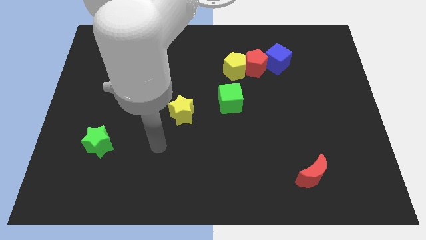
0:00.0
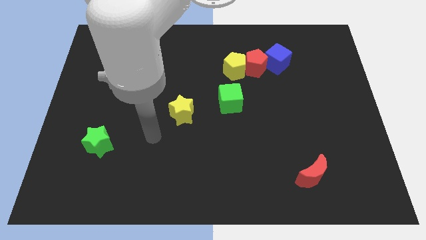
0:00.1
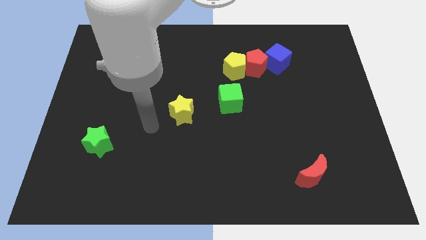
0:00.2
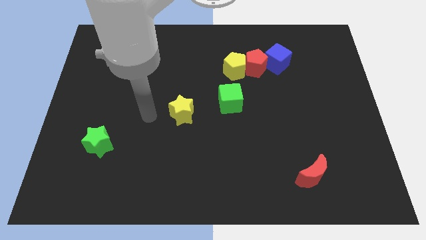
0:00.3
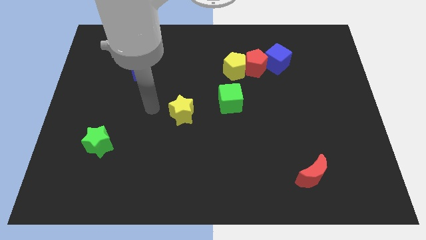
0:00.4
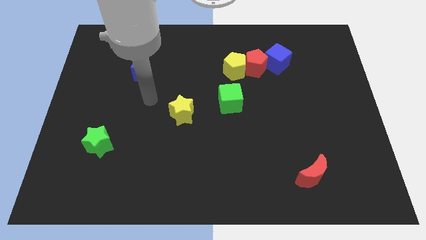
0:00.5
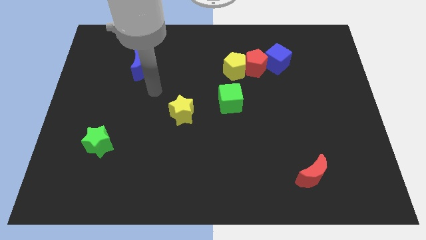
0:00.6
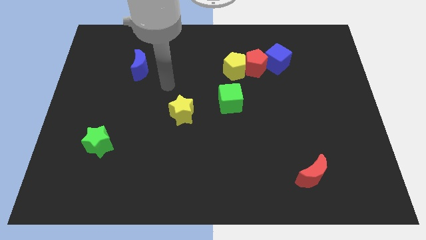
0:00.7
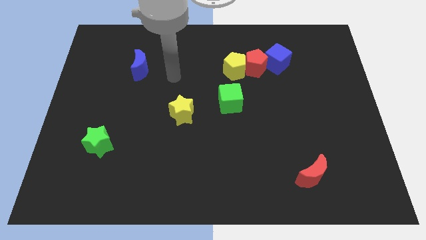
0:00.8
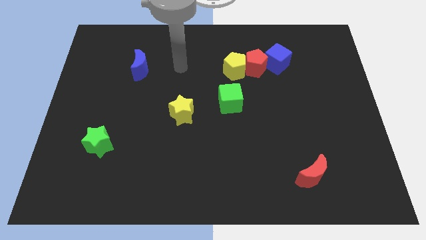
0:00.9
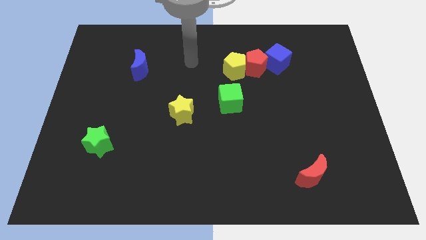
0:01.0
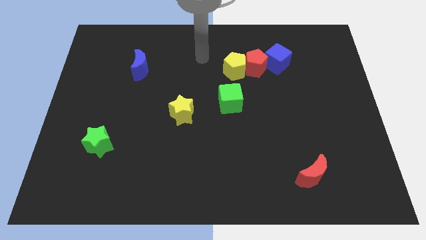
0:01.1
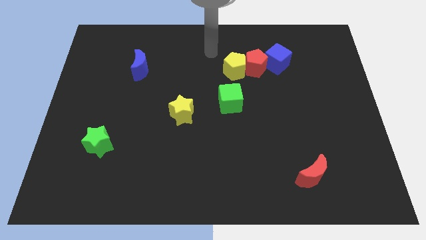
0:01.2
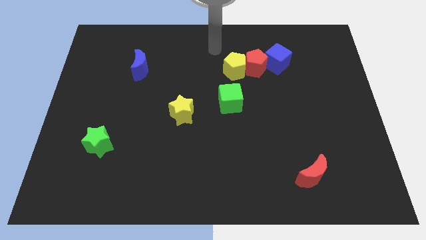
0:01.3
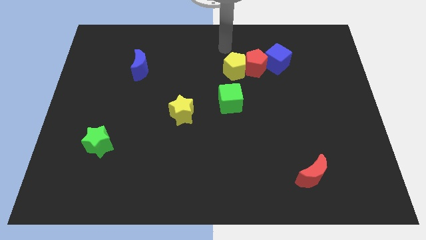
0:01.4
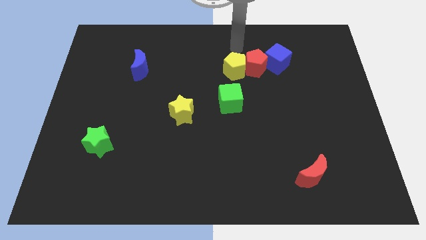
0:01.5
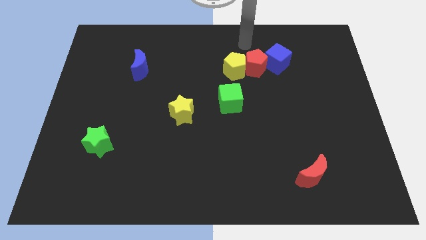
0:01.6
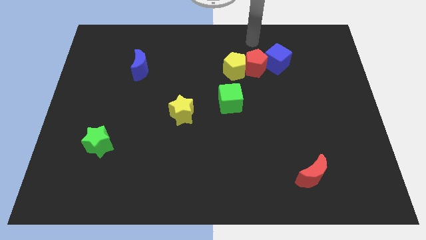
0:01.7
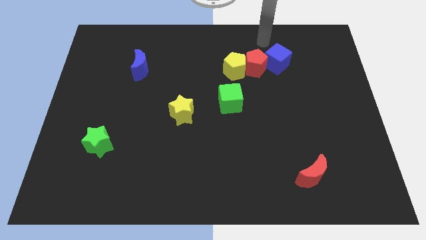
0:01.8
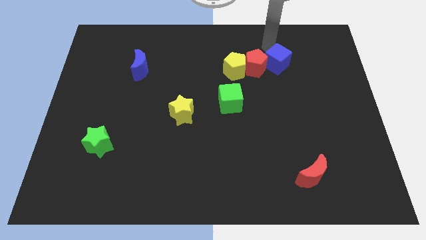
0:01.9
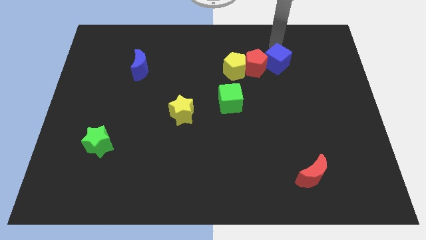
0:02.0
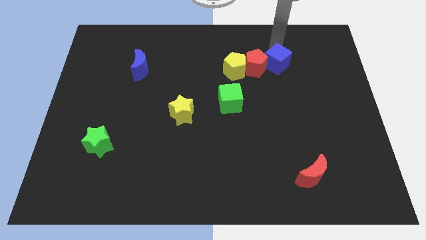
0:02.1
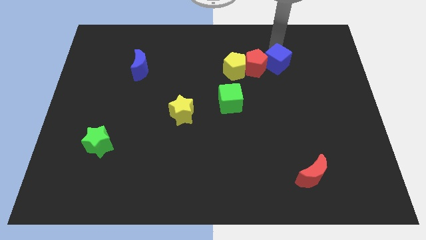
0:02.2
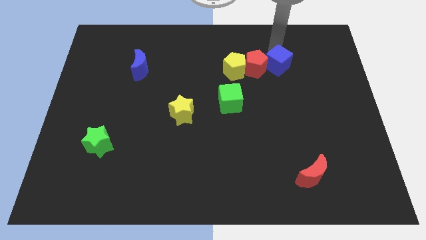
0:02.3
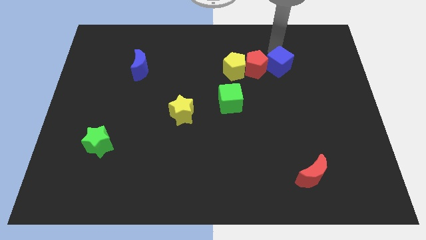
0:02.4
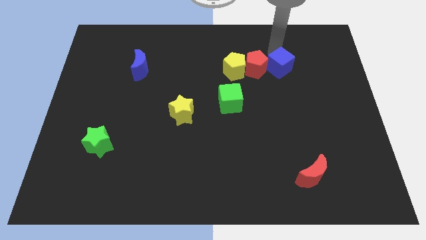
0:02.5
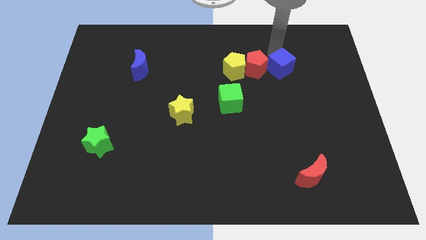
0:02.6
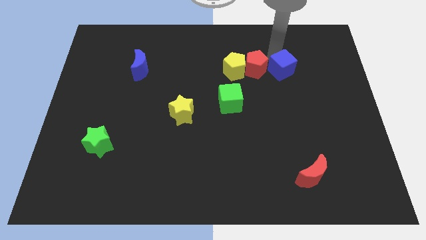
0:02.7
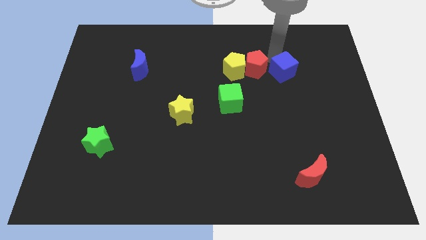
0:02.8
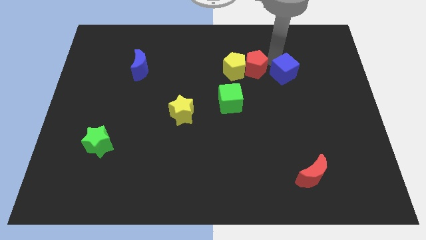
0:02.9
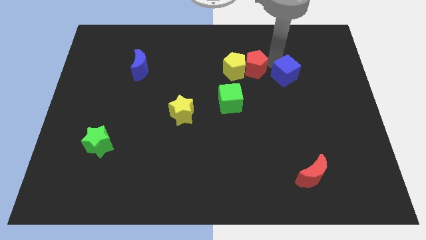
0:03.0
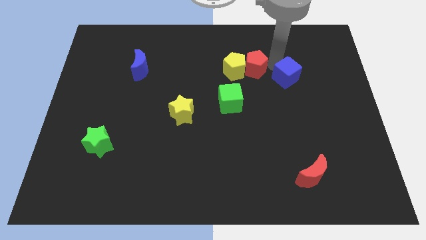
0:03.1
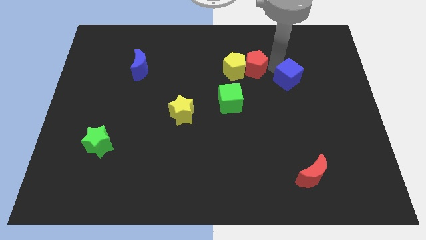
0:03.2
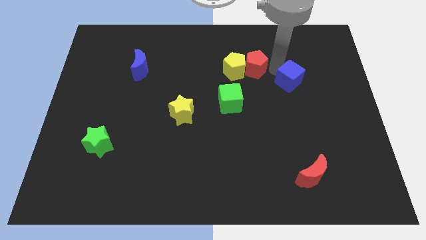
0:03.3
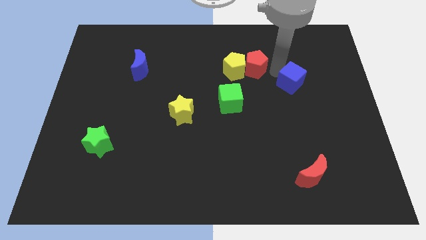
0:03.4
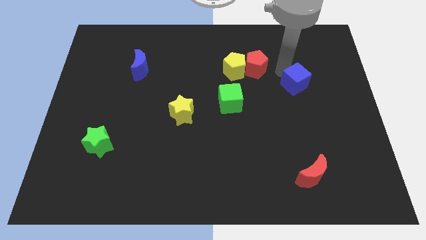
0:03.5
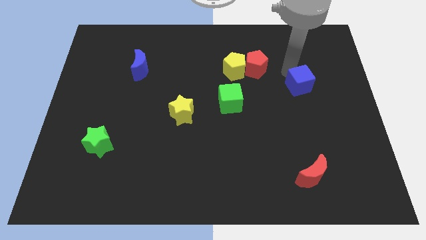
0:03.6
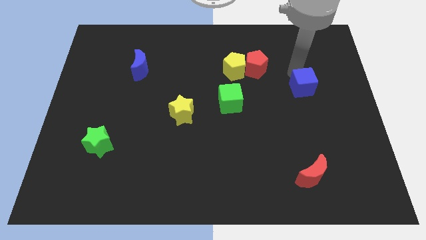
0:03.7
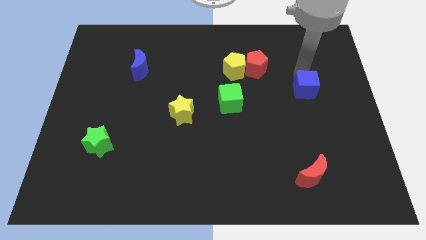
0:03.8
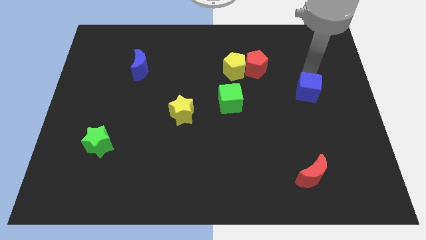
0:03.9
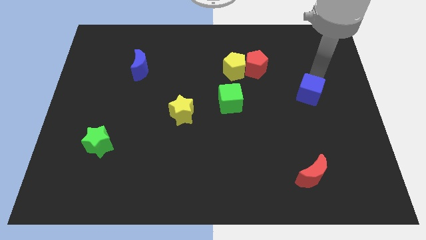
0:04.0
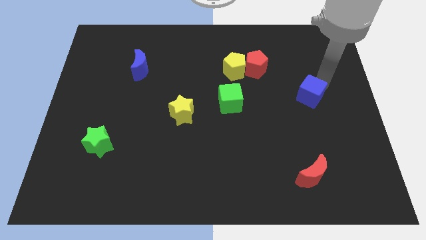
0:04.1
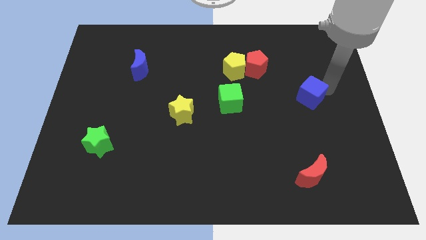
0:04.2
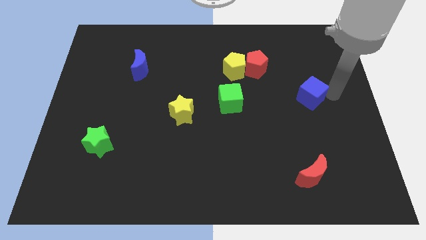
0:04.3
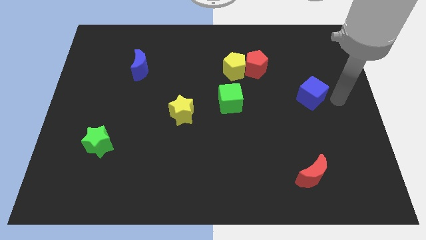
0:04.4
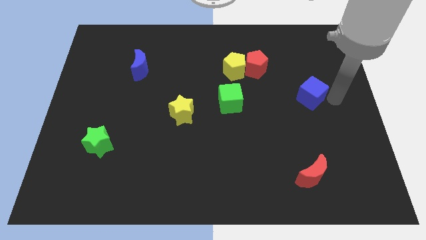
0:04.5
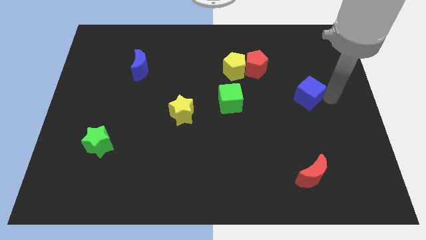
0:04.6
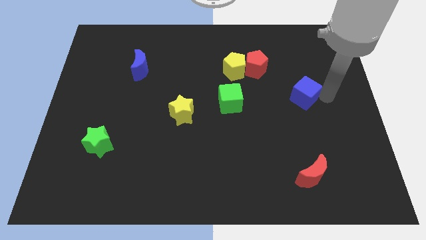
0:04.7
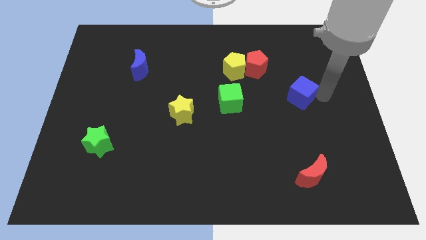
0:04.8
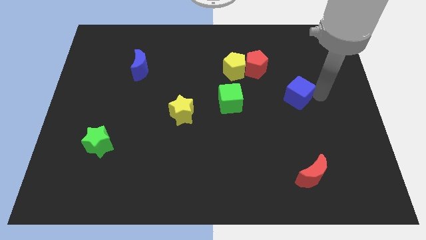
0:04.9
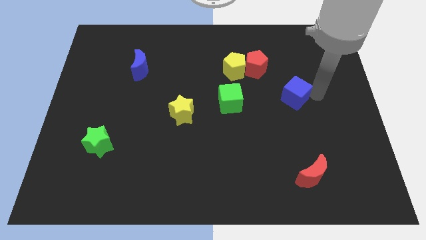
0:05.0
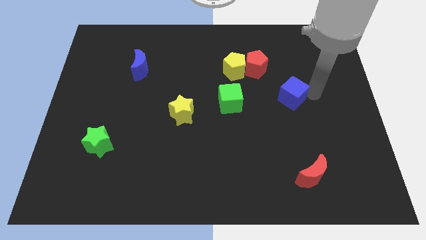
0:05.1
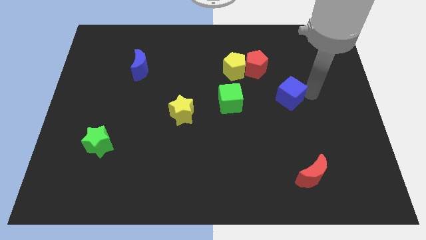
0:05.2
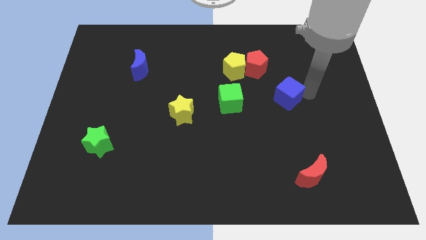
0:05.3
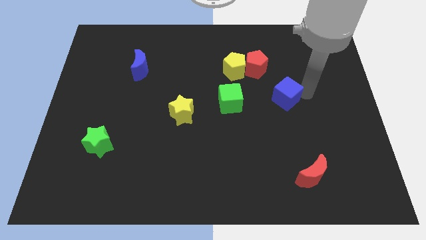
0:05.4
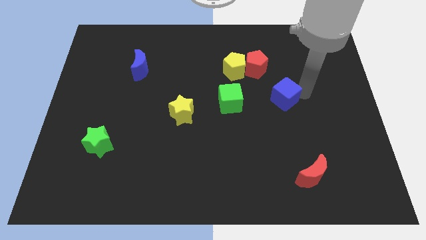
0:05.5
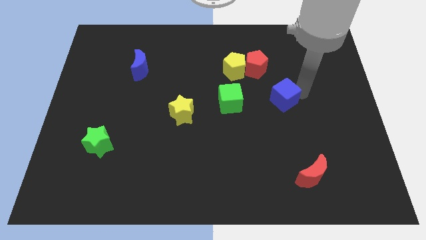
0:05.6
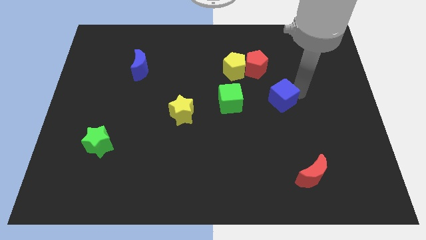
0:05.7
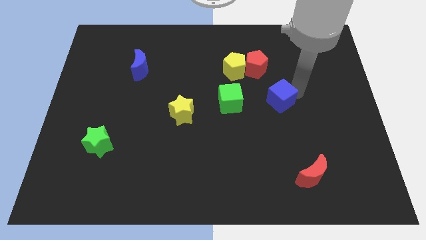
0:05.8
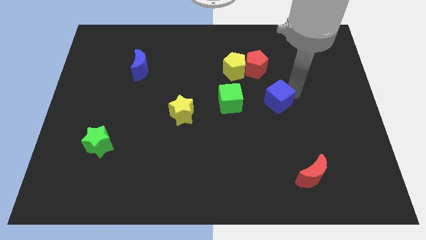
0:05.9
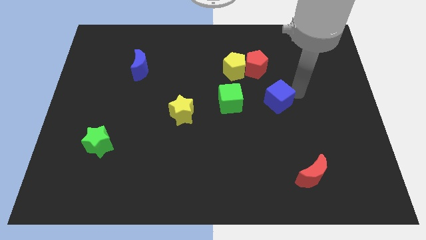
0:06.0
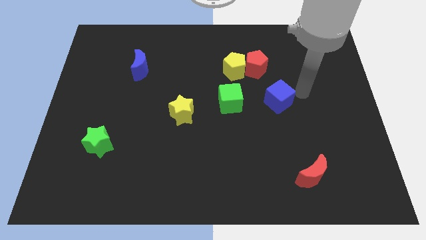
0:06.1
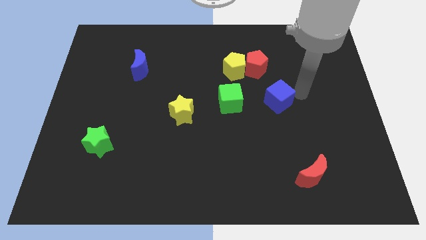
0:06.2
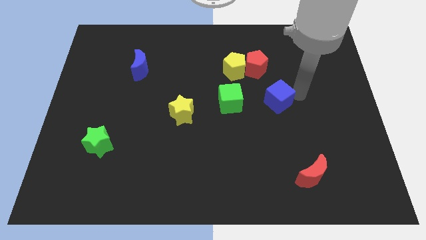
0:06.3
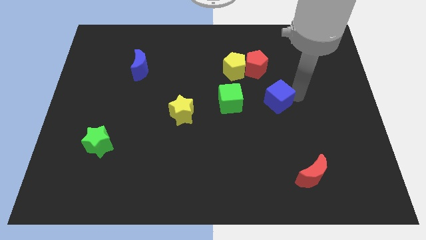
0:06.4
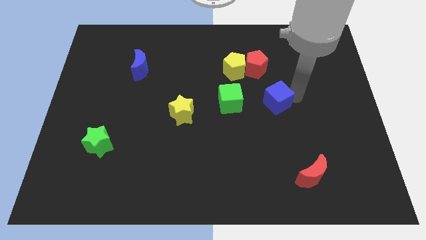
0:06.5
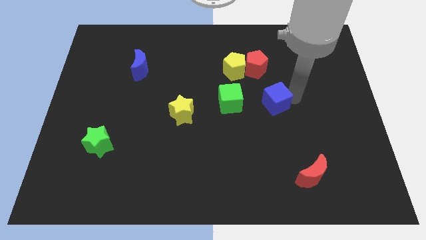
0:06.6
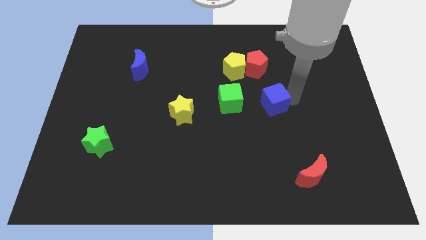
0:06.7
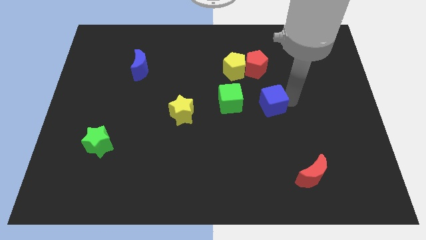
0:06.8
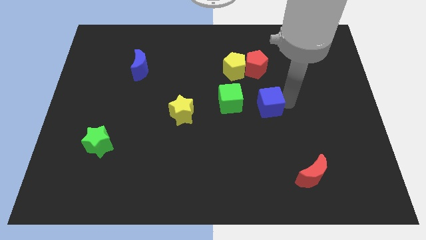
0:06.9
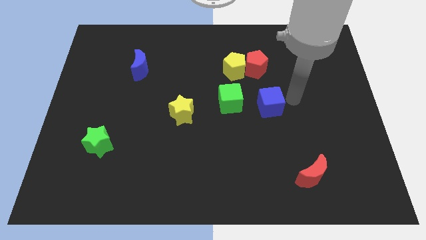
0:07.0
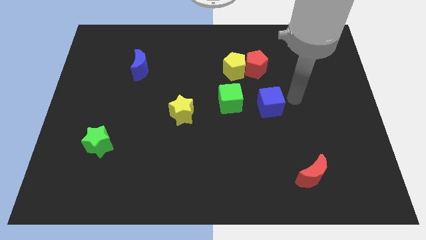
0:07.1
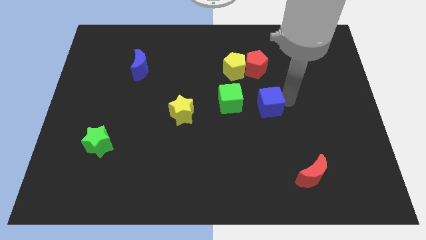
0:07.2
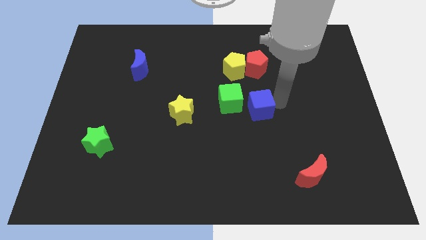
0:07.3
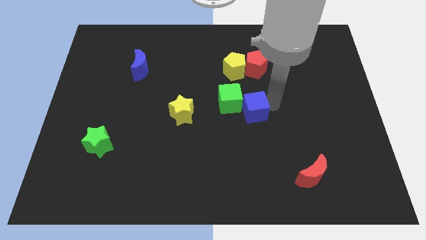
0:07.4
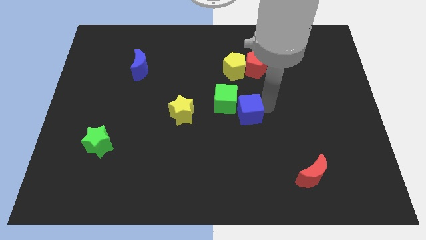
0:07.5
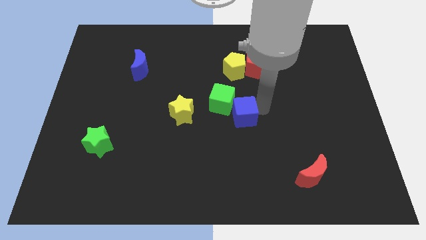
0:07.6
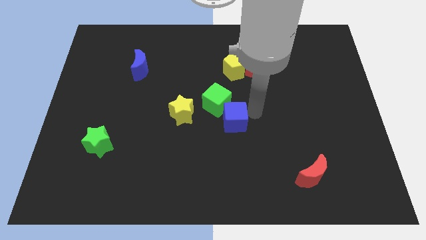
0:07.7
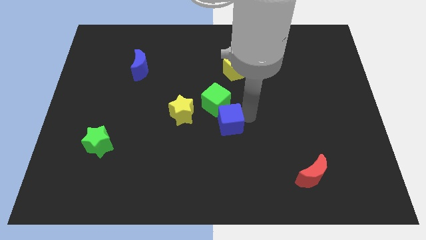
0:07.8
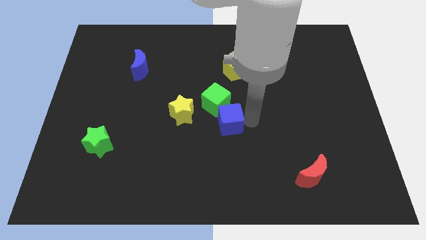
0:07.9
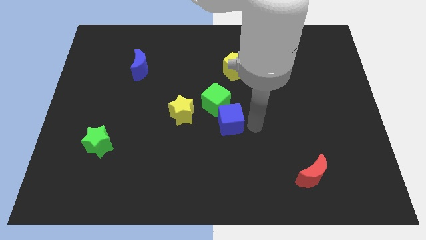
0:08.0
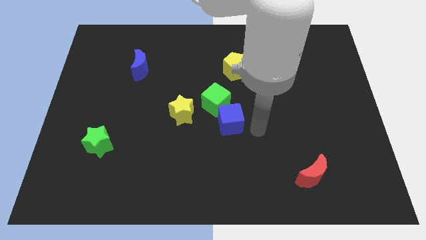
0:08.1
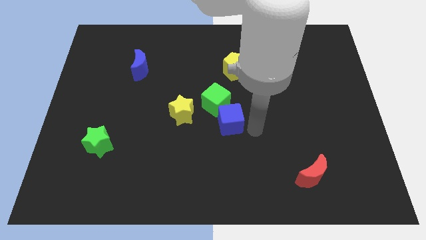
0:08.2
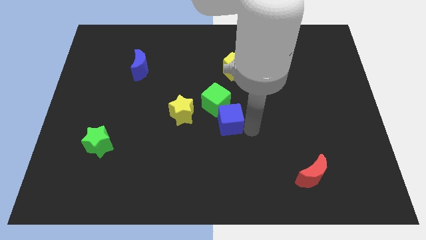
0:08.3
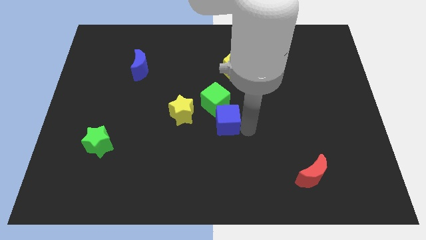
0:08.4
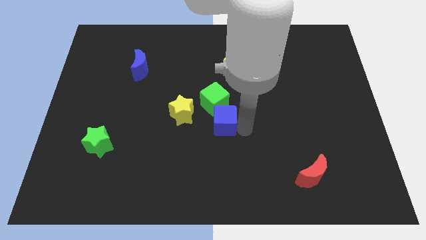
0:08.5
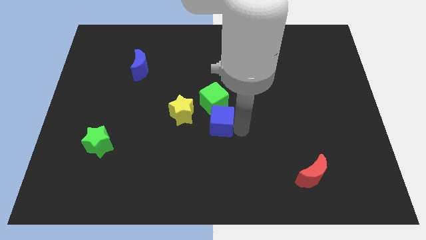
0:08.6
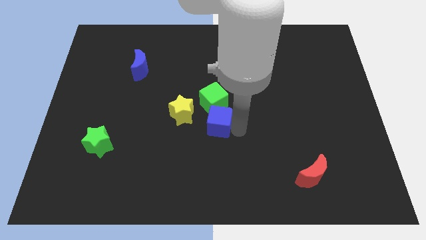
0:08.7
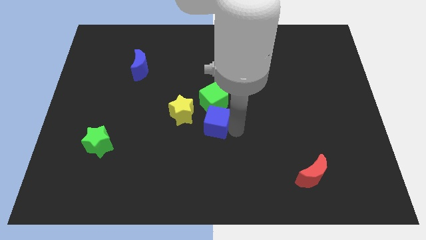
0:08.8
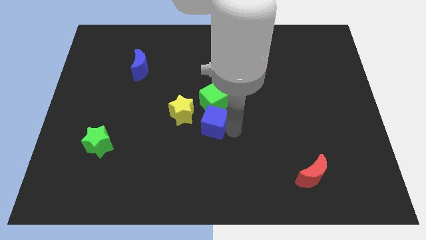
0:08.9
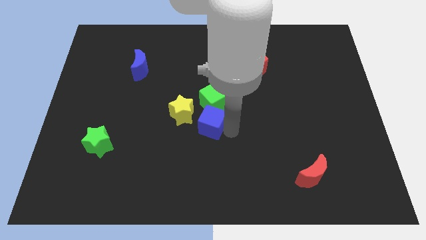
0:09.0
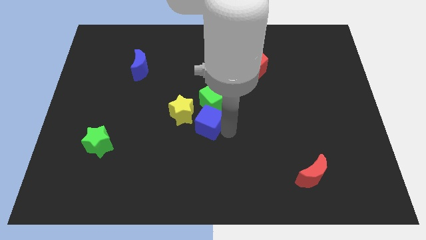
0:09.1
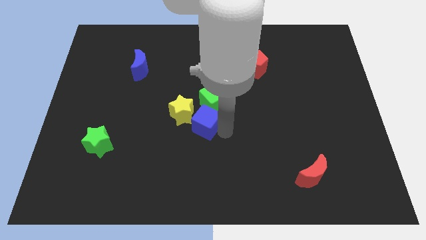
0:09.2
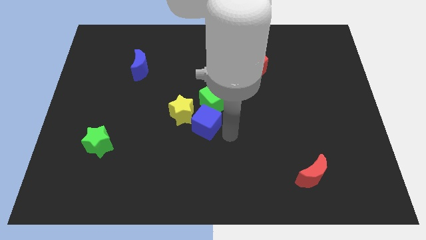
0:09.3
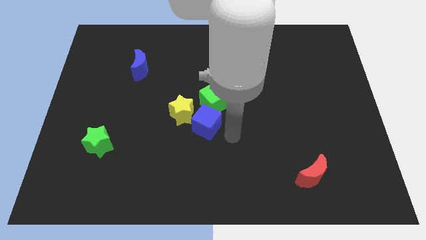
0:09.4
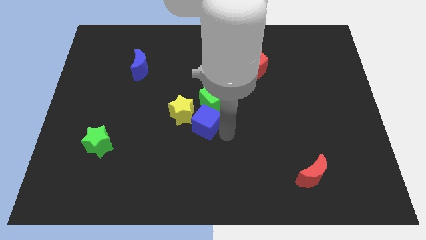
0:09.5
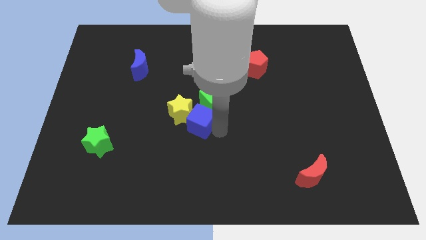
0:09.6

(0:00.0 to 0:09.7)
slide the blue cube towards the yellow star
